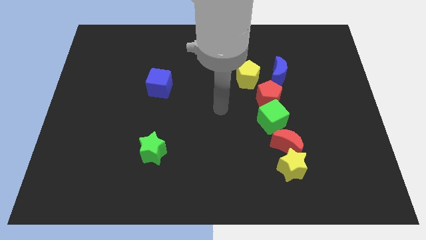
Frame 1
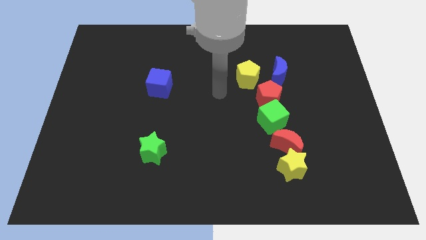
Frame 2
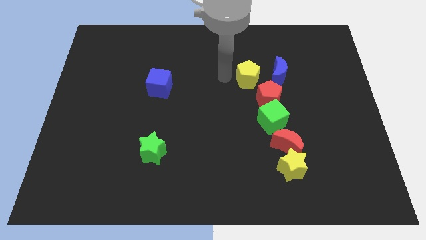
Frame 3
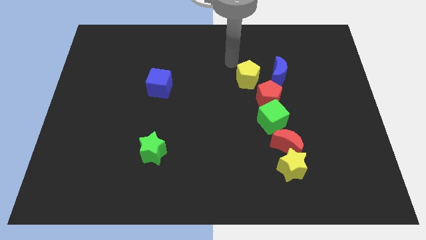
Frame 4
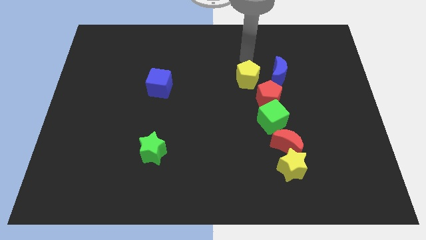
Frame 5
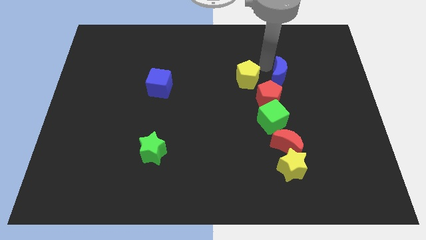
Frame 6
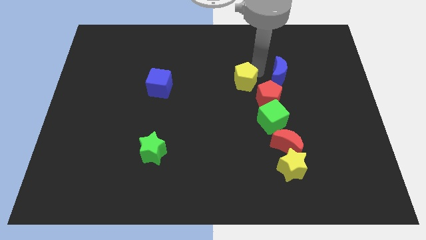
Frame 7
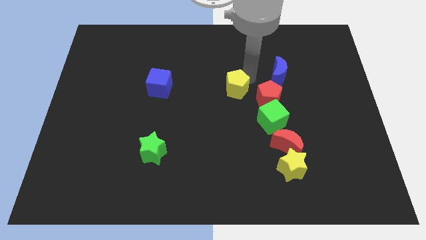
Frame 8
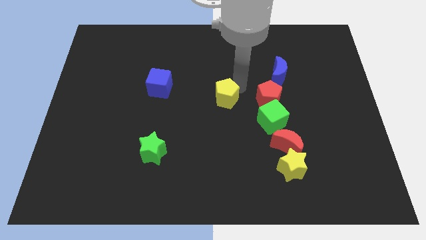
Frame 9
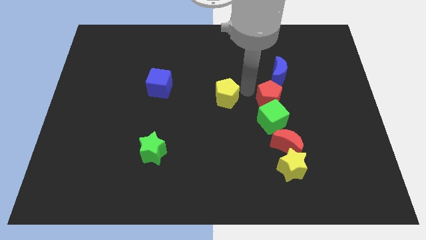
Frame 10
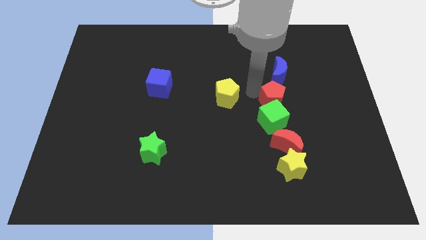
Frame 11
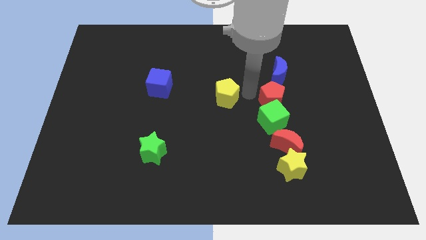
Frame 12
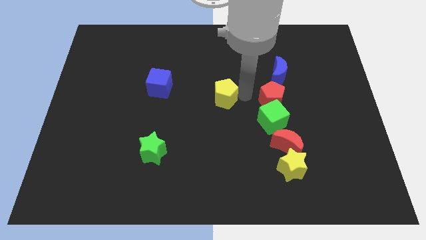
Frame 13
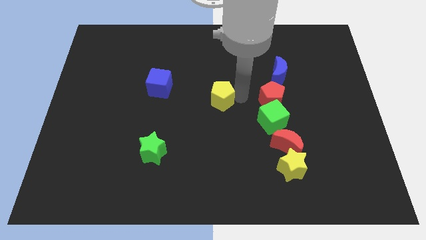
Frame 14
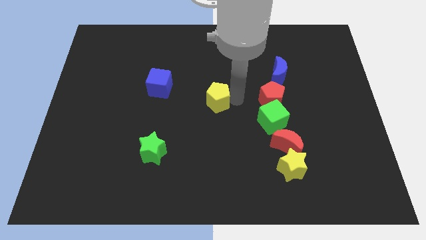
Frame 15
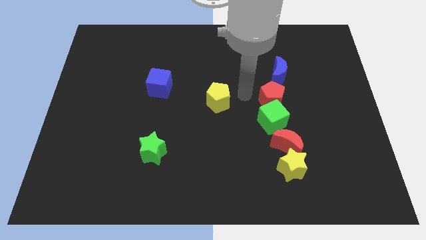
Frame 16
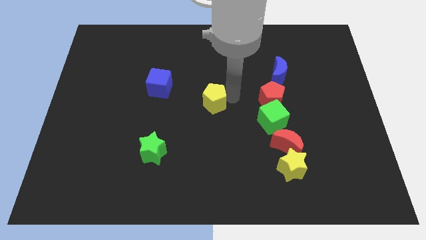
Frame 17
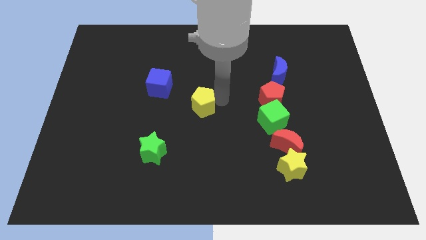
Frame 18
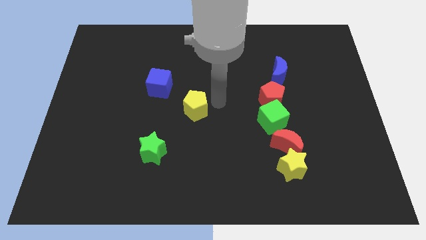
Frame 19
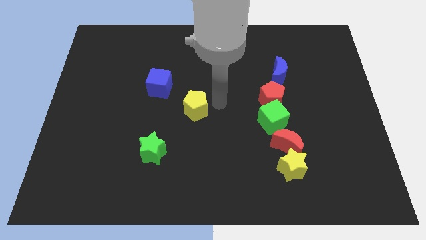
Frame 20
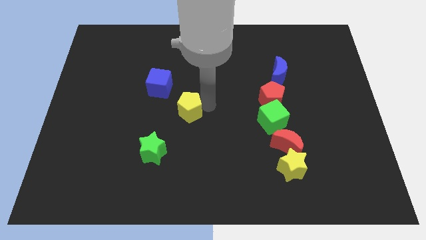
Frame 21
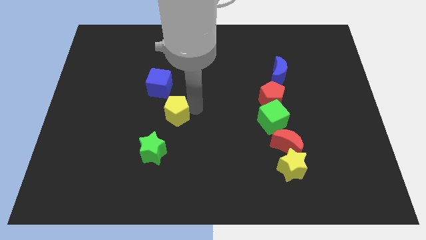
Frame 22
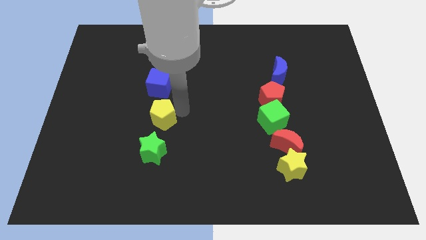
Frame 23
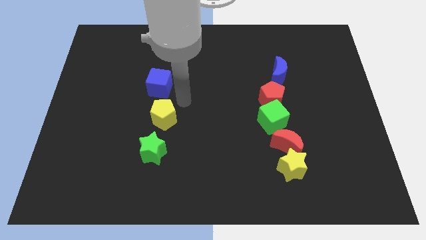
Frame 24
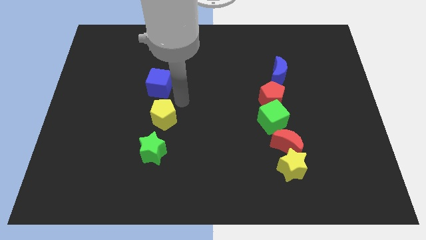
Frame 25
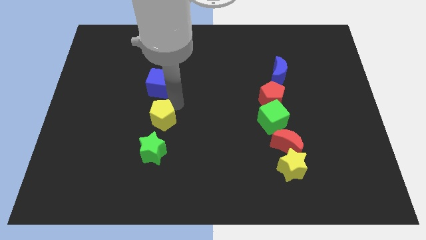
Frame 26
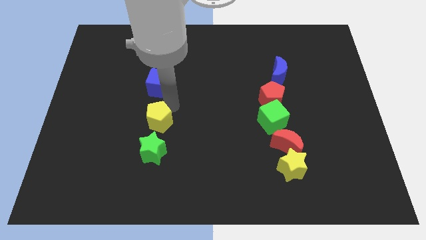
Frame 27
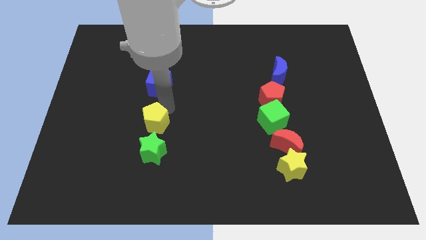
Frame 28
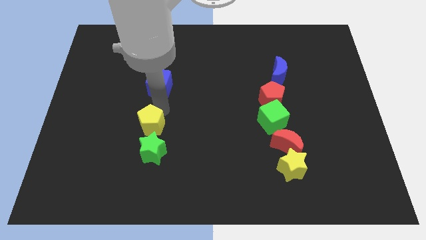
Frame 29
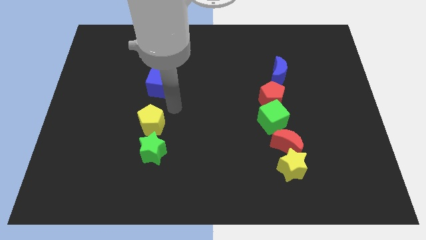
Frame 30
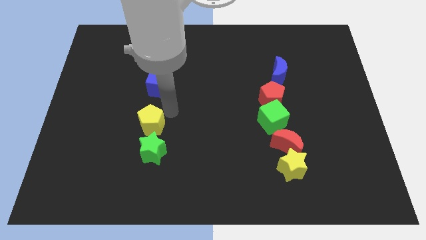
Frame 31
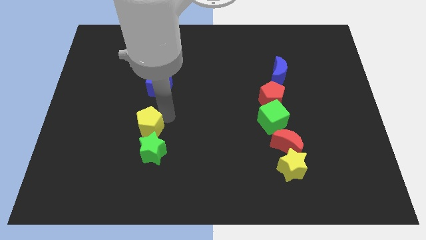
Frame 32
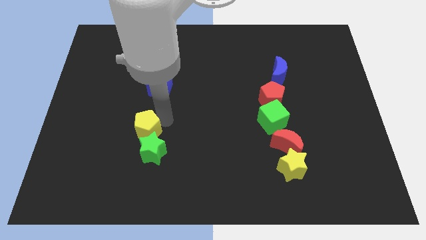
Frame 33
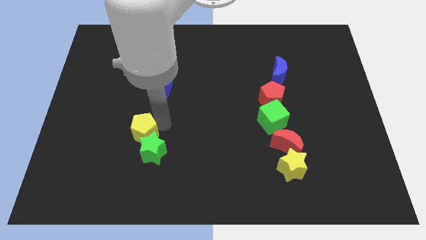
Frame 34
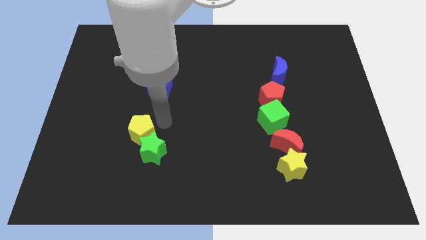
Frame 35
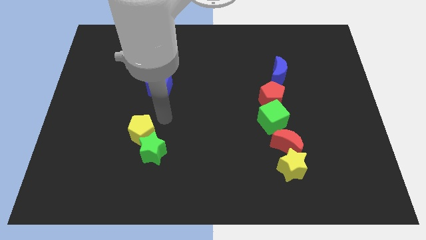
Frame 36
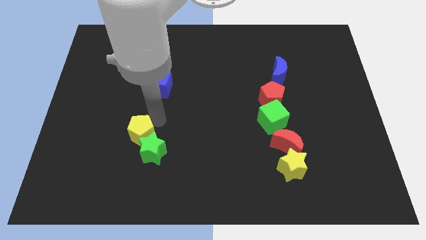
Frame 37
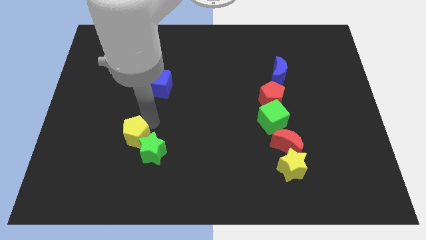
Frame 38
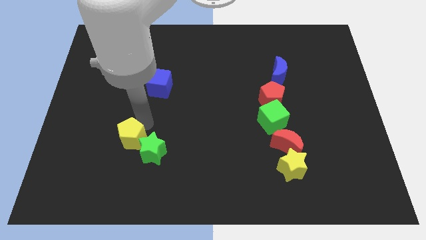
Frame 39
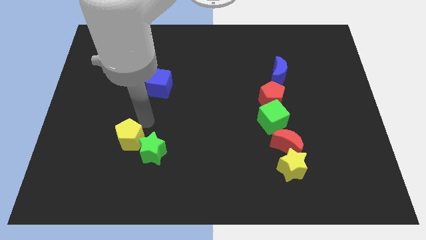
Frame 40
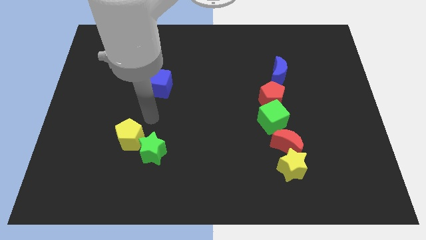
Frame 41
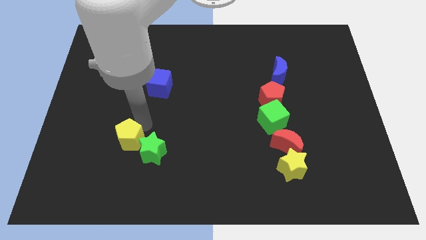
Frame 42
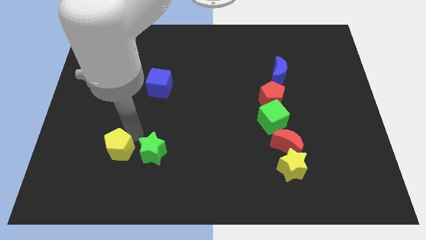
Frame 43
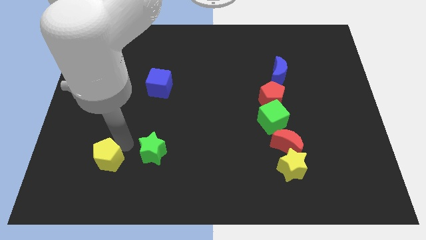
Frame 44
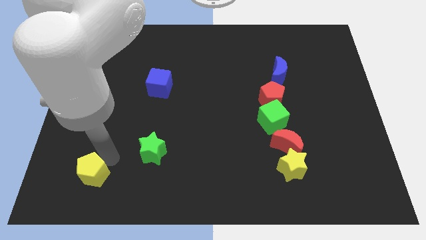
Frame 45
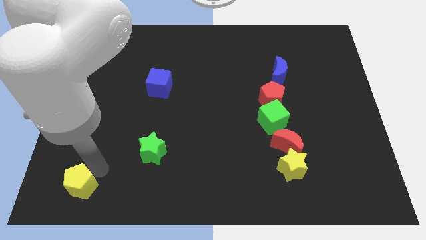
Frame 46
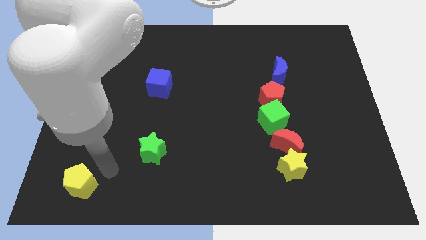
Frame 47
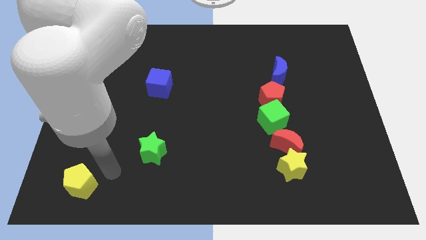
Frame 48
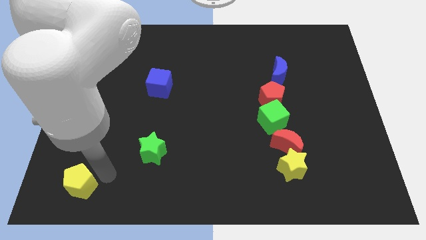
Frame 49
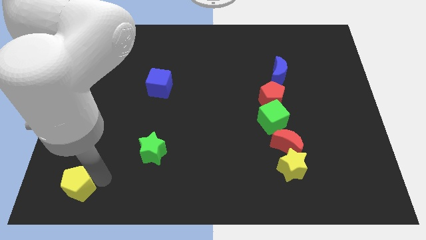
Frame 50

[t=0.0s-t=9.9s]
push the yellow pentagon to the lower left corner

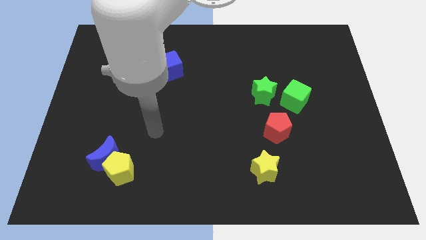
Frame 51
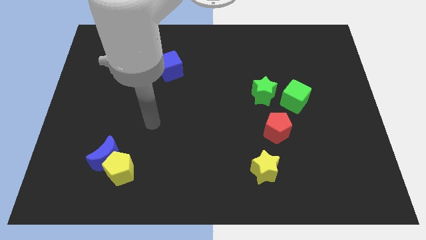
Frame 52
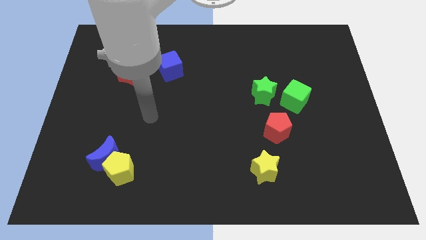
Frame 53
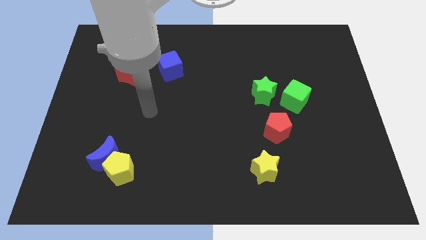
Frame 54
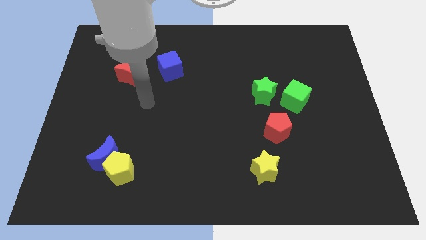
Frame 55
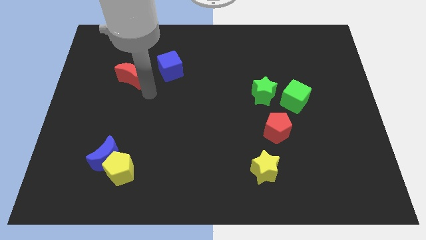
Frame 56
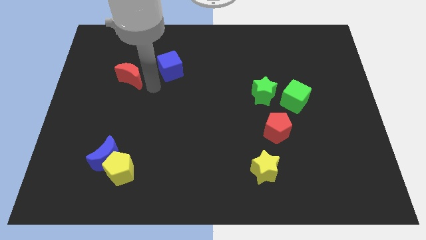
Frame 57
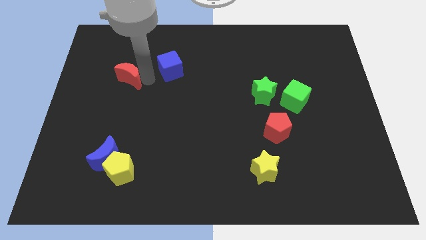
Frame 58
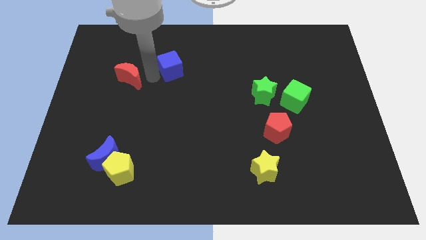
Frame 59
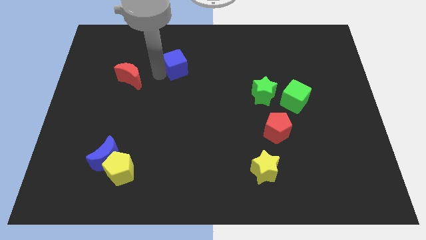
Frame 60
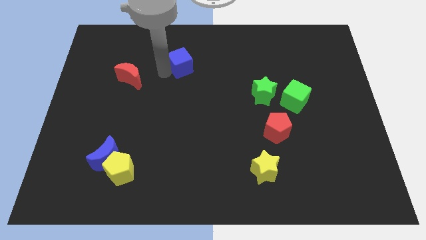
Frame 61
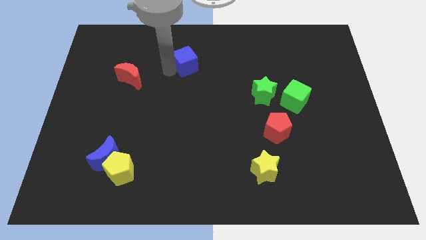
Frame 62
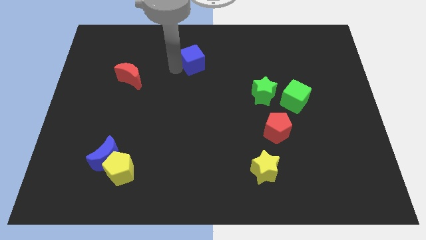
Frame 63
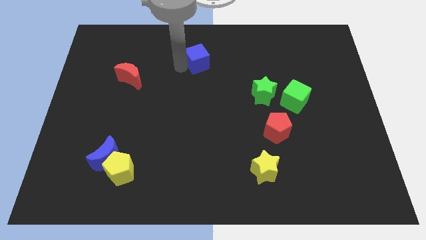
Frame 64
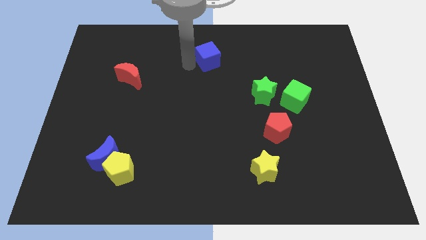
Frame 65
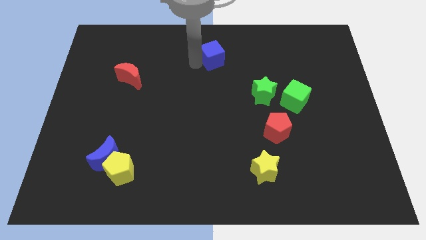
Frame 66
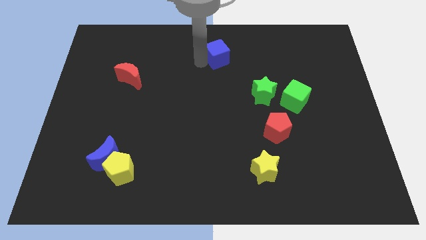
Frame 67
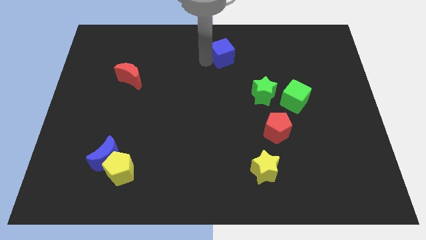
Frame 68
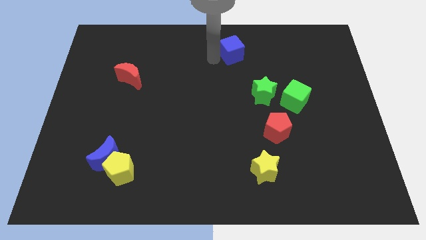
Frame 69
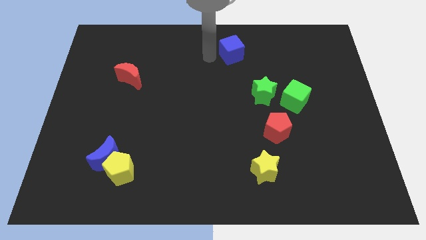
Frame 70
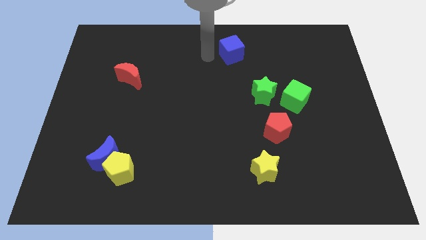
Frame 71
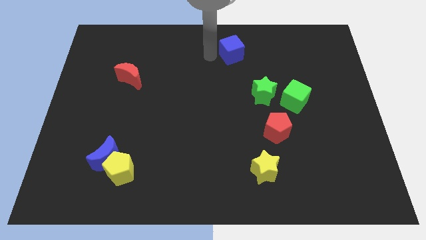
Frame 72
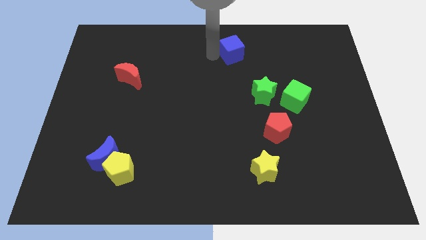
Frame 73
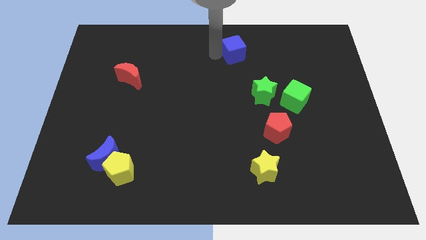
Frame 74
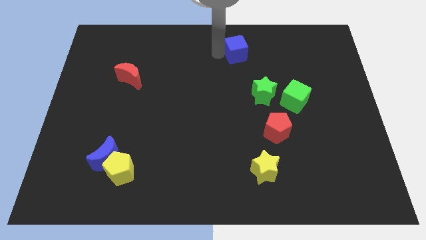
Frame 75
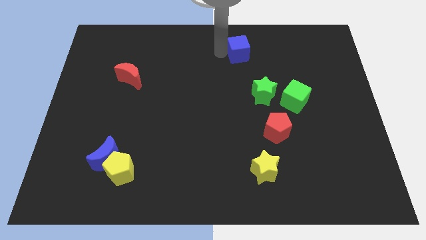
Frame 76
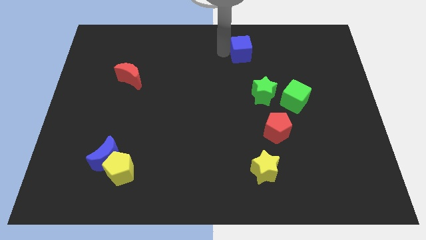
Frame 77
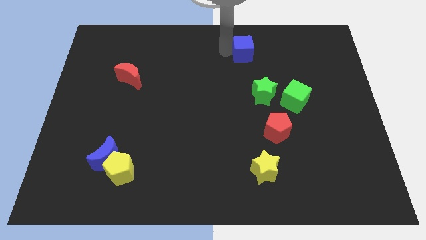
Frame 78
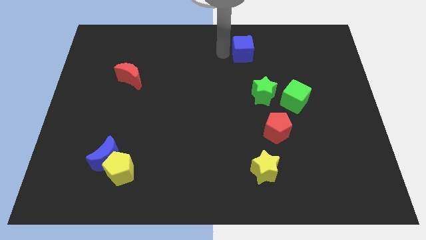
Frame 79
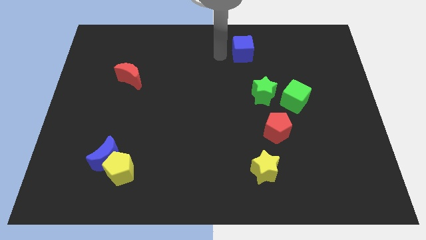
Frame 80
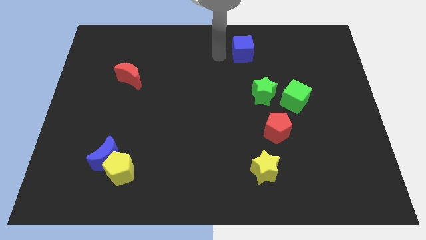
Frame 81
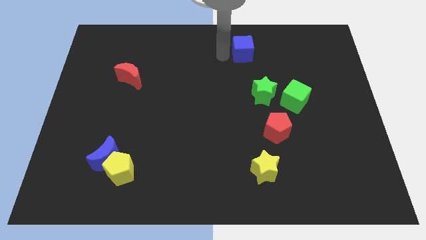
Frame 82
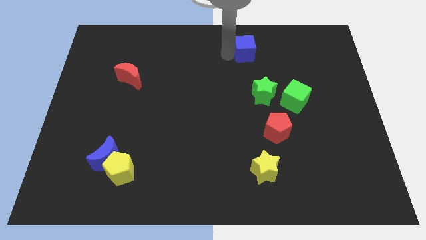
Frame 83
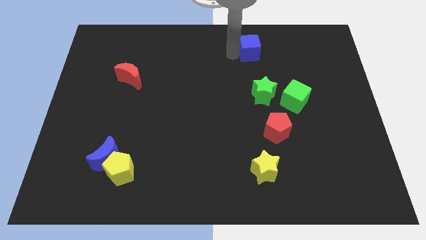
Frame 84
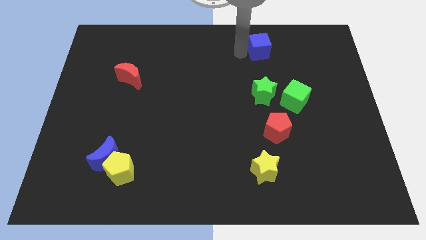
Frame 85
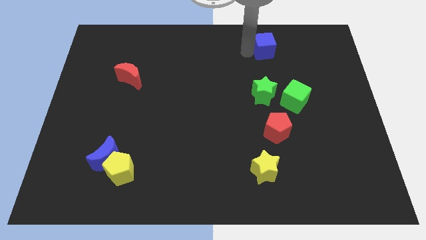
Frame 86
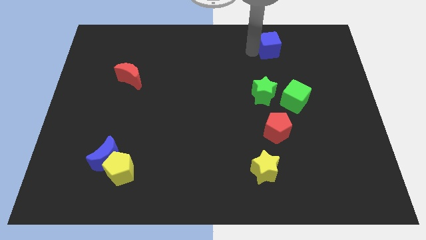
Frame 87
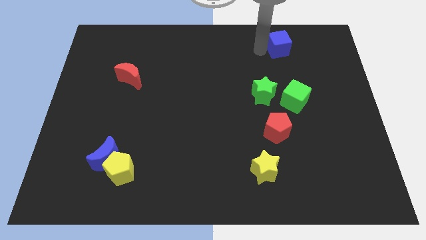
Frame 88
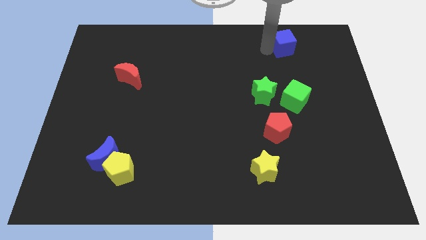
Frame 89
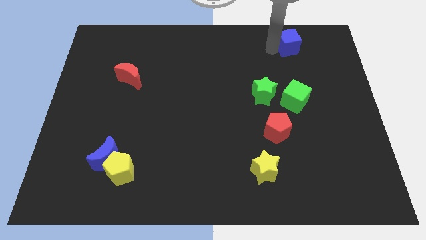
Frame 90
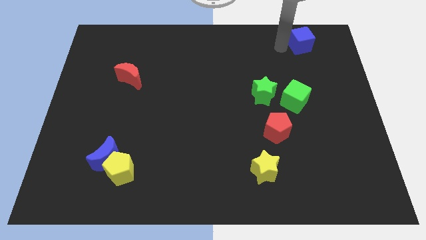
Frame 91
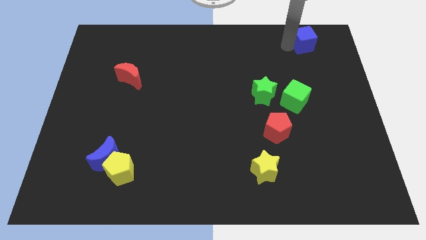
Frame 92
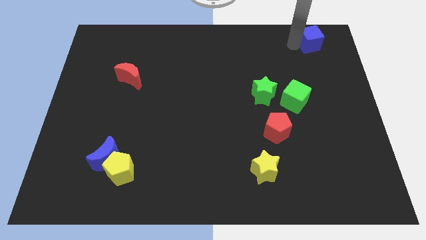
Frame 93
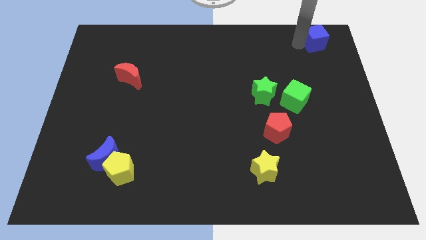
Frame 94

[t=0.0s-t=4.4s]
slide the blue cube to the upper right corner
